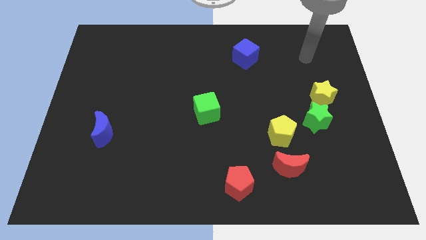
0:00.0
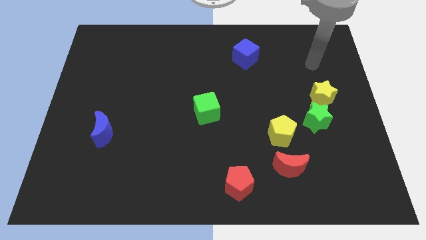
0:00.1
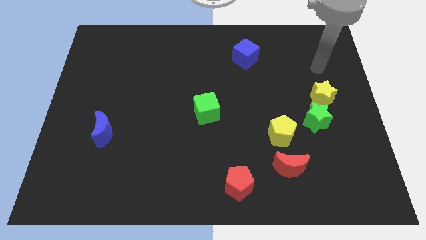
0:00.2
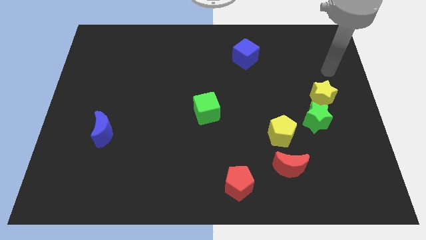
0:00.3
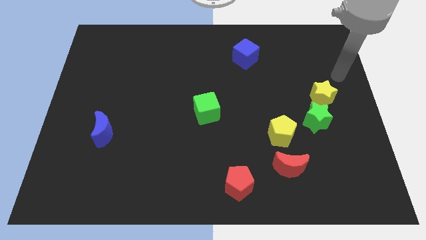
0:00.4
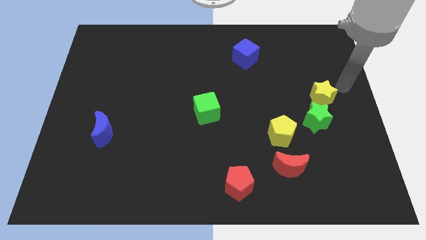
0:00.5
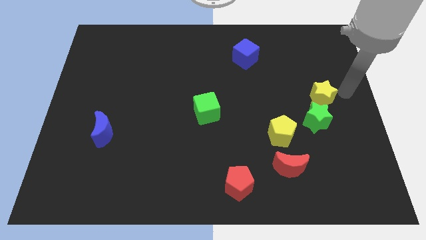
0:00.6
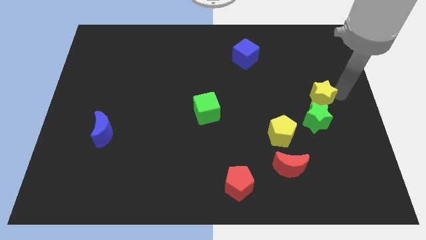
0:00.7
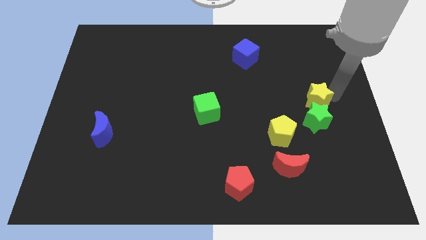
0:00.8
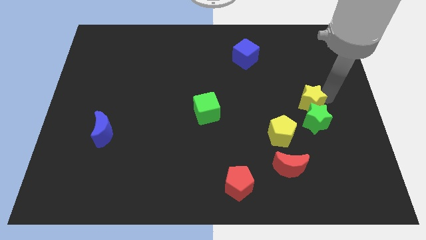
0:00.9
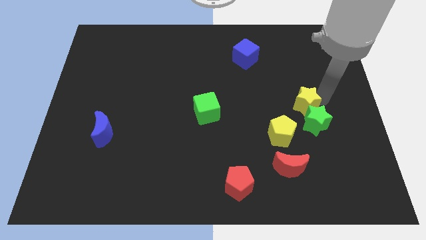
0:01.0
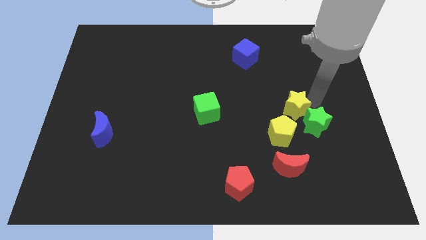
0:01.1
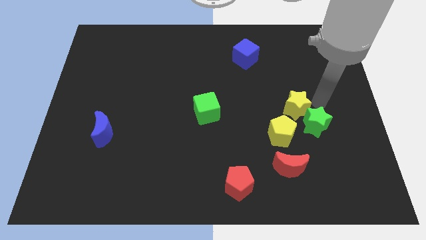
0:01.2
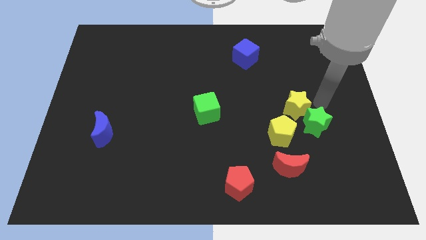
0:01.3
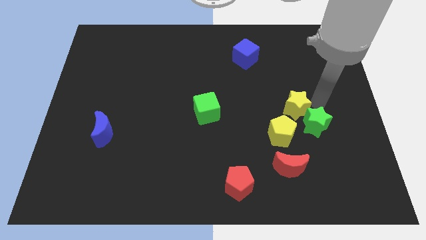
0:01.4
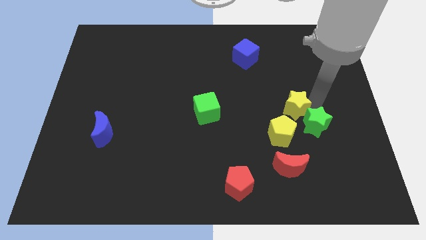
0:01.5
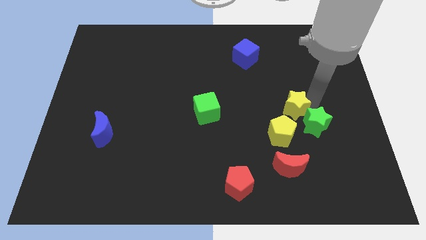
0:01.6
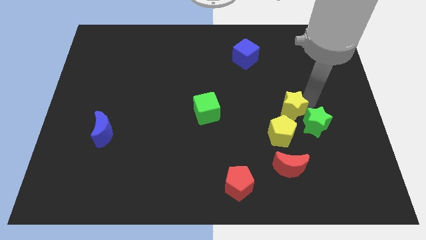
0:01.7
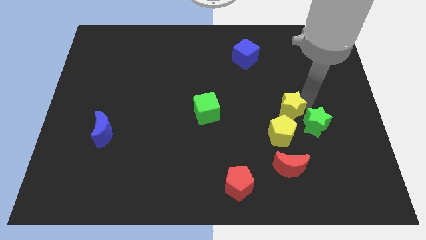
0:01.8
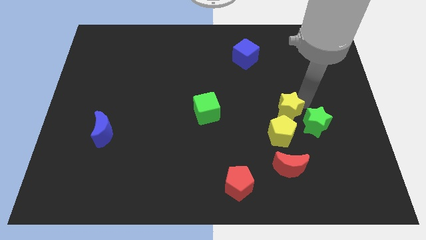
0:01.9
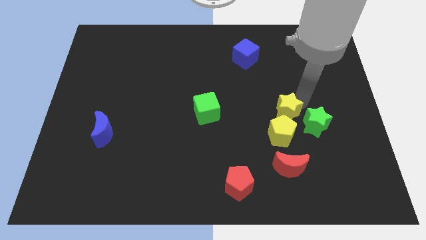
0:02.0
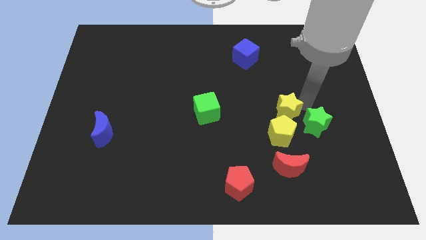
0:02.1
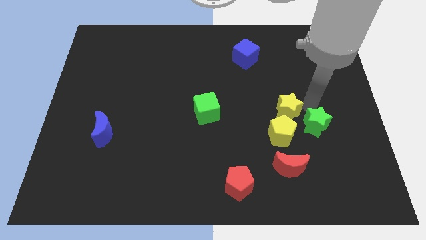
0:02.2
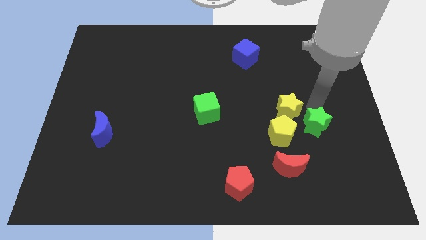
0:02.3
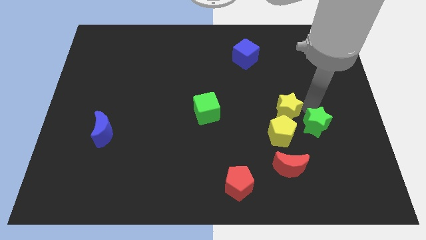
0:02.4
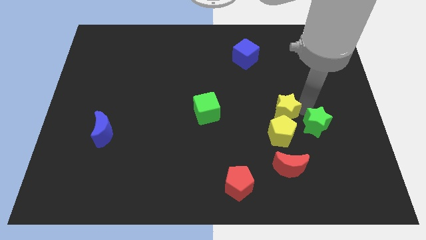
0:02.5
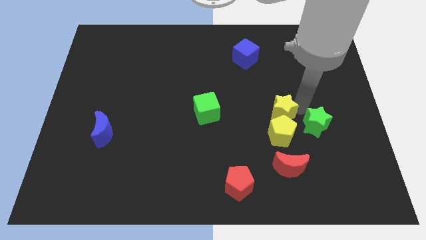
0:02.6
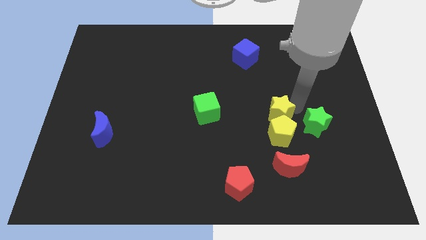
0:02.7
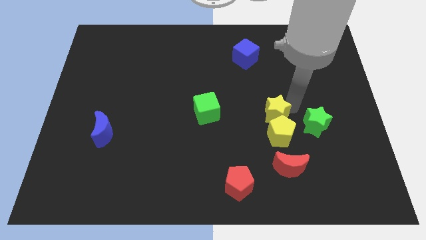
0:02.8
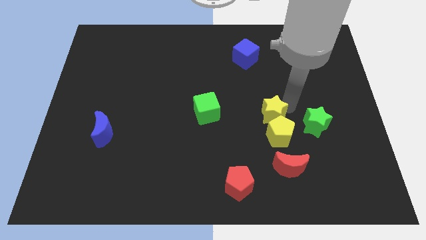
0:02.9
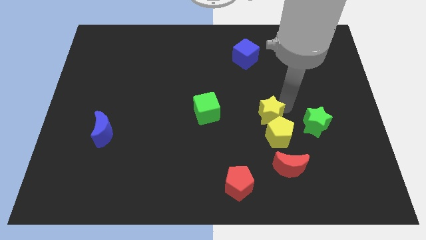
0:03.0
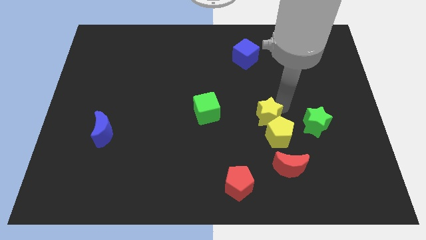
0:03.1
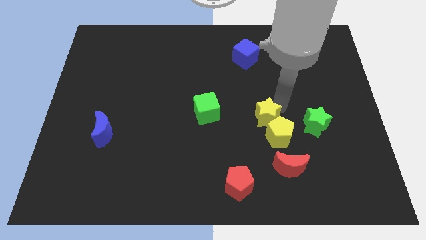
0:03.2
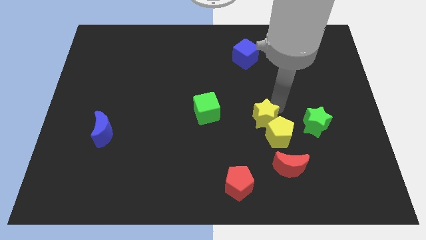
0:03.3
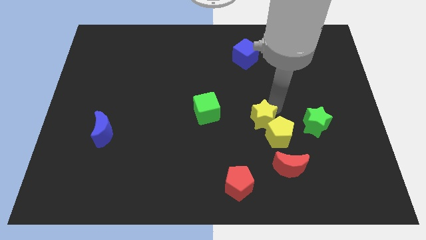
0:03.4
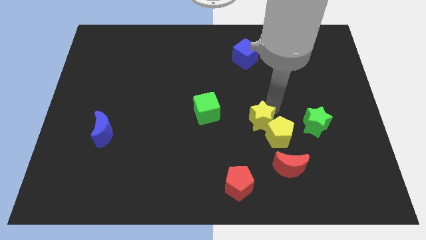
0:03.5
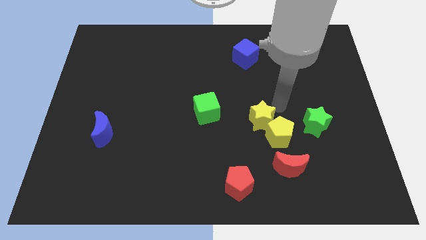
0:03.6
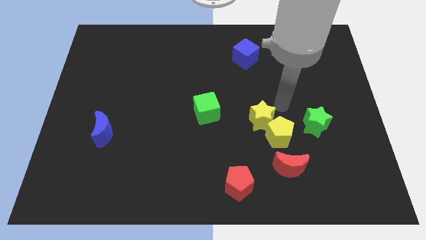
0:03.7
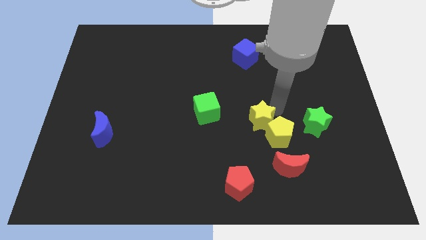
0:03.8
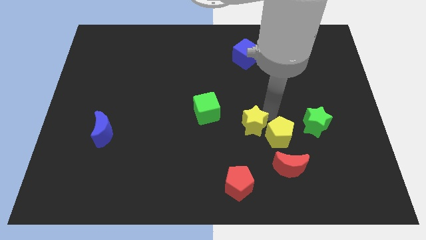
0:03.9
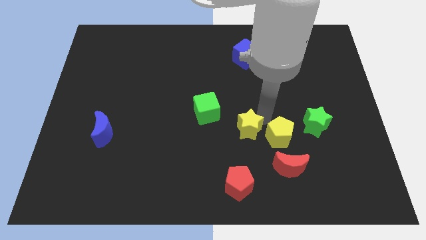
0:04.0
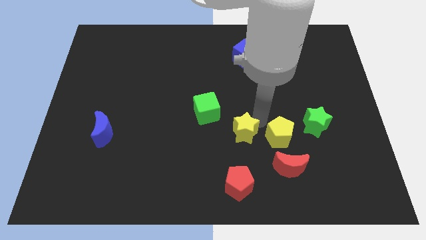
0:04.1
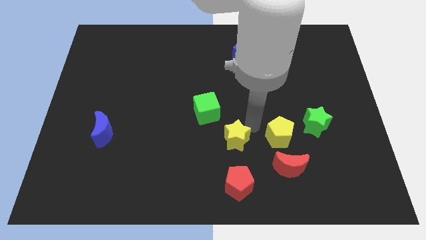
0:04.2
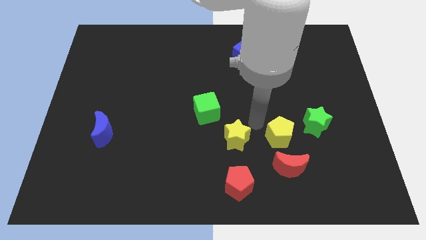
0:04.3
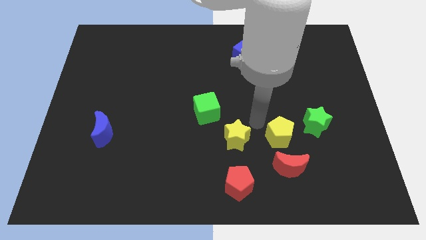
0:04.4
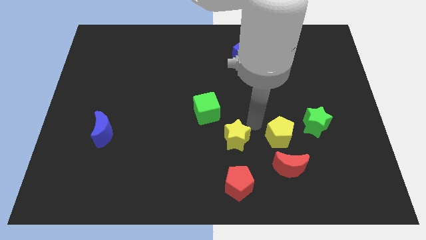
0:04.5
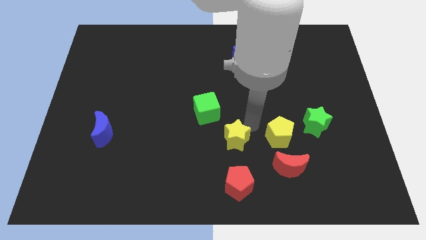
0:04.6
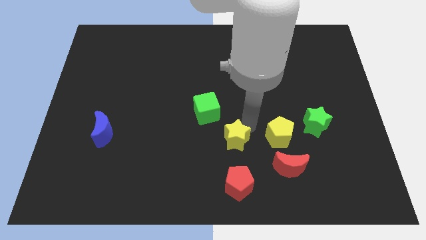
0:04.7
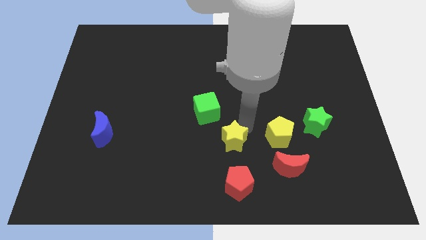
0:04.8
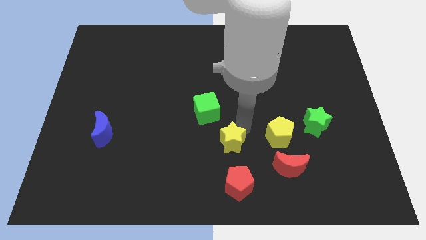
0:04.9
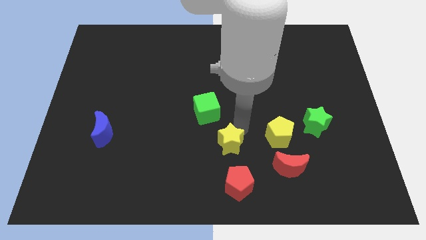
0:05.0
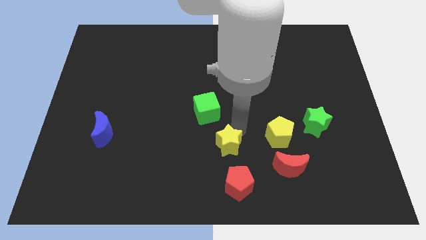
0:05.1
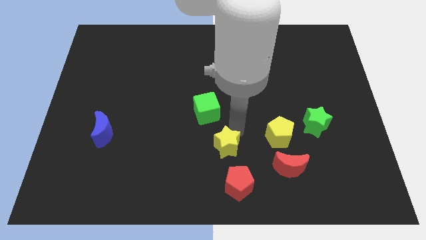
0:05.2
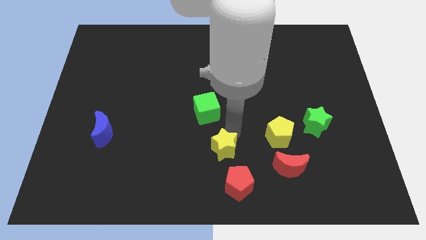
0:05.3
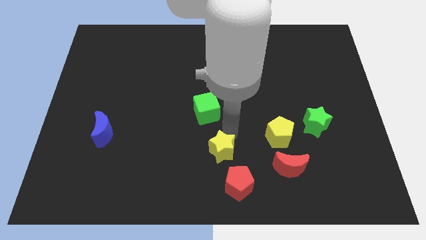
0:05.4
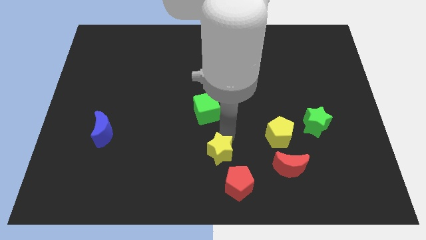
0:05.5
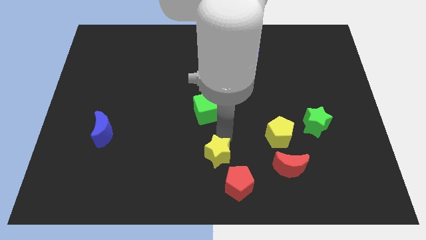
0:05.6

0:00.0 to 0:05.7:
slide the yellow star to the bottom
